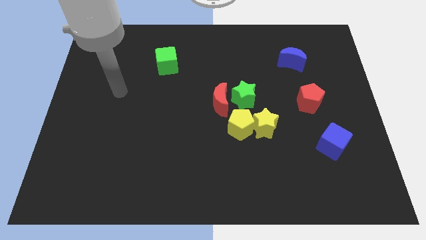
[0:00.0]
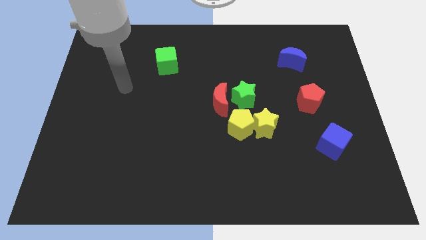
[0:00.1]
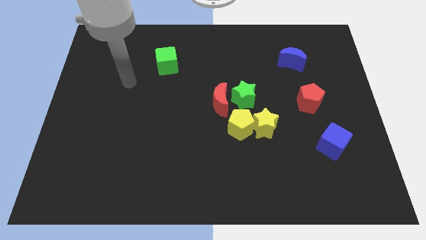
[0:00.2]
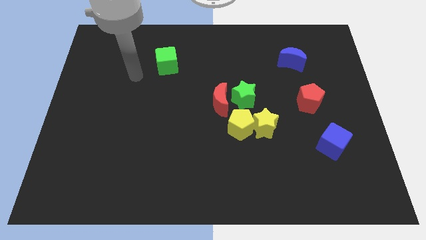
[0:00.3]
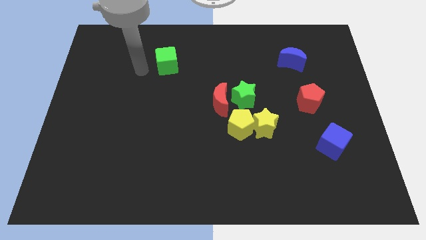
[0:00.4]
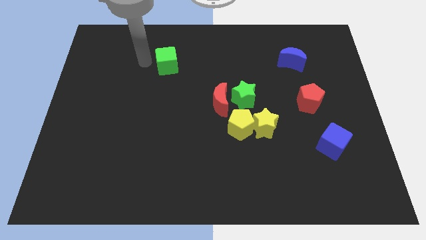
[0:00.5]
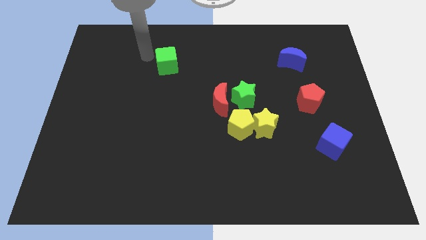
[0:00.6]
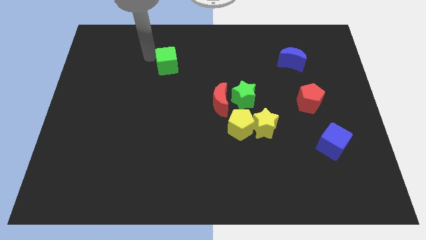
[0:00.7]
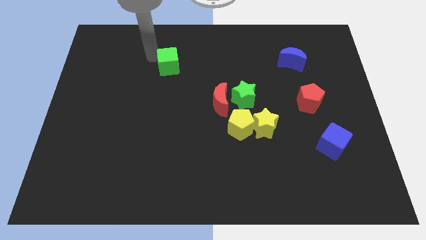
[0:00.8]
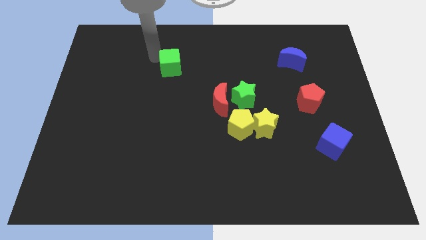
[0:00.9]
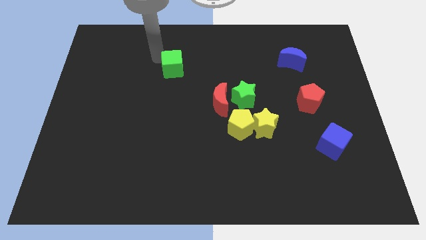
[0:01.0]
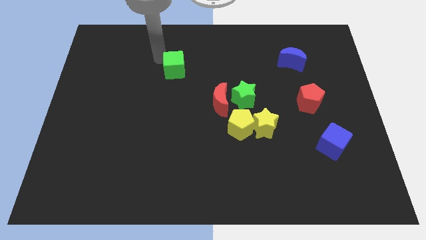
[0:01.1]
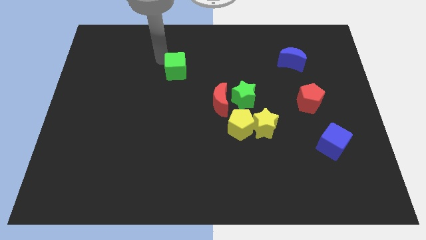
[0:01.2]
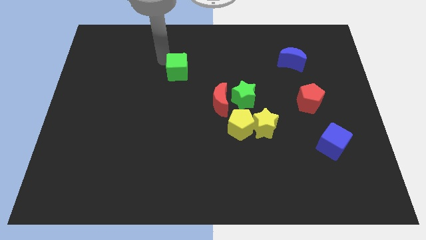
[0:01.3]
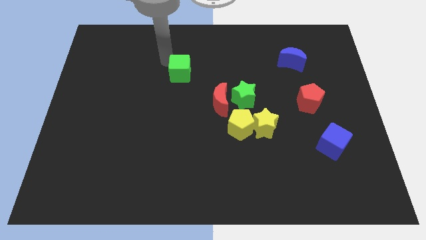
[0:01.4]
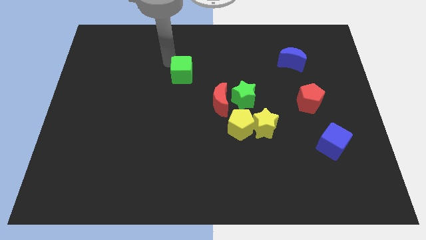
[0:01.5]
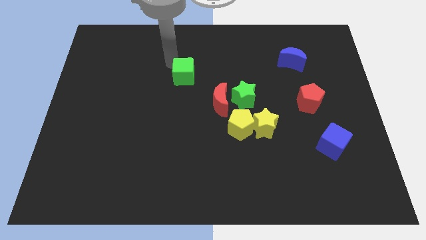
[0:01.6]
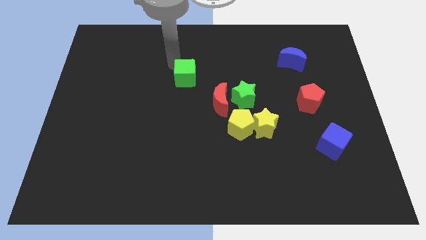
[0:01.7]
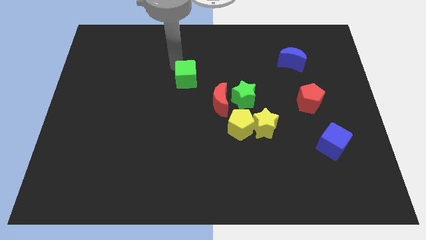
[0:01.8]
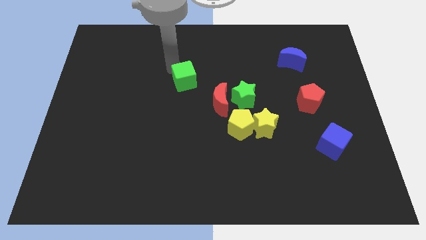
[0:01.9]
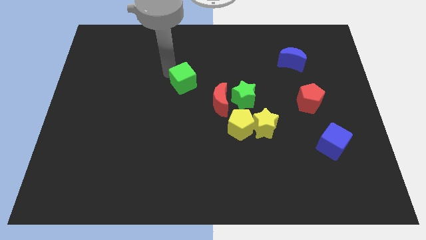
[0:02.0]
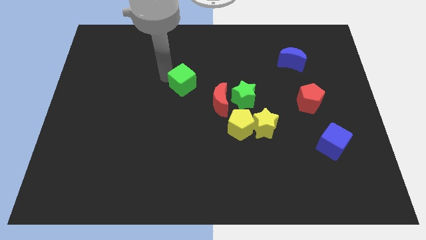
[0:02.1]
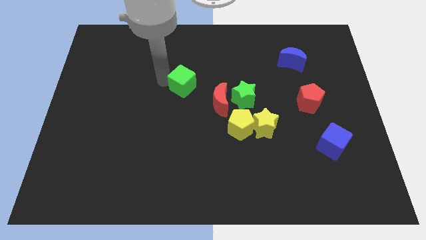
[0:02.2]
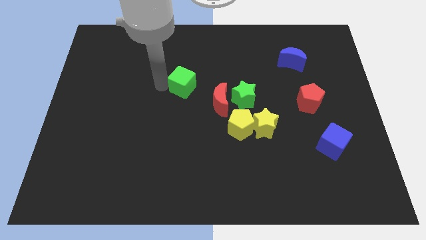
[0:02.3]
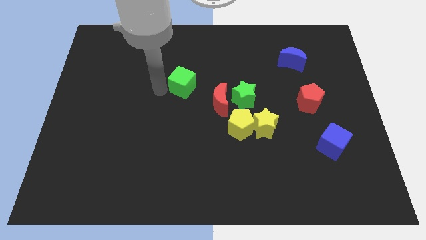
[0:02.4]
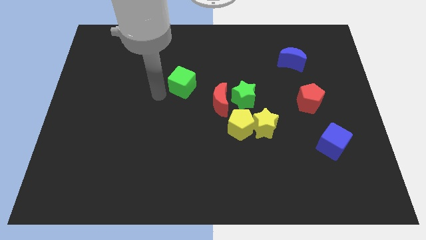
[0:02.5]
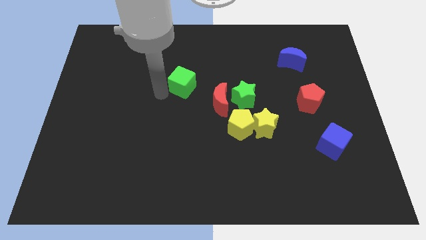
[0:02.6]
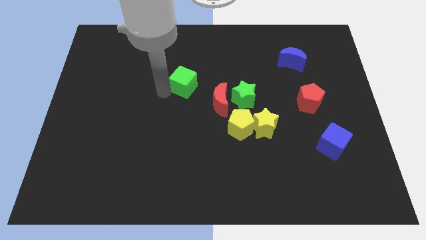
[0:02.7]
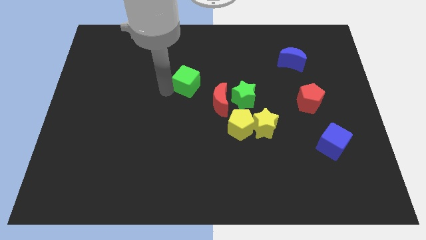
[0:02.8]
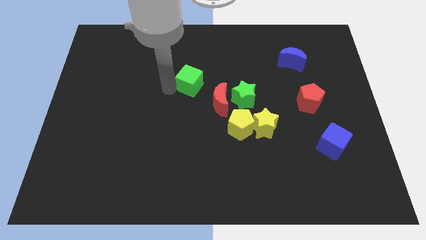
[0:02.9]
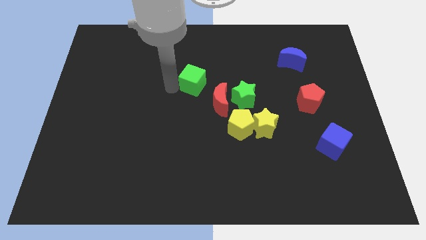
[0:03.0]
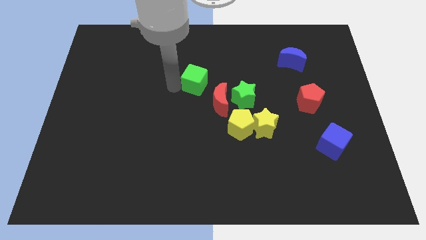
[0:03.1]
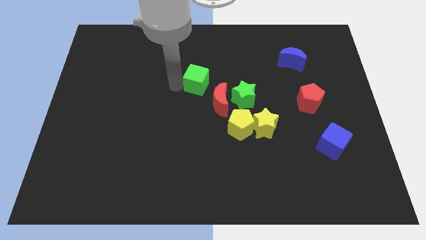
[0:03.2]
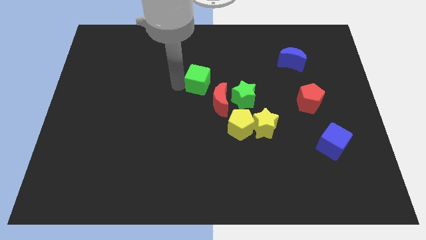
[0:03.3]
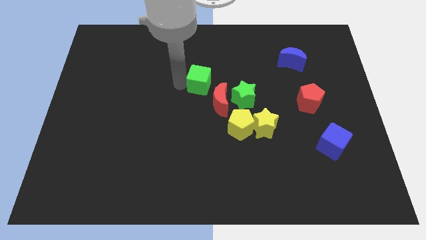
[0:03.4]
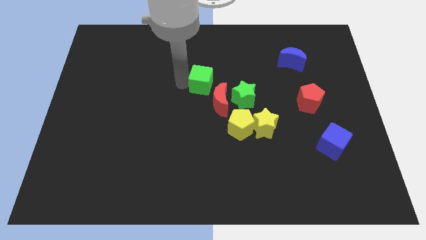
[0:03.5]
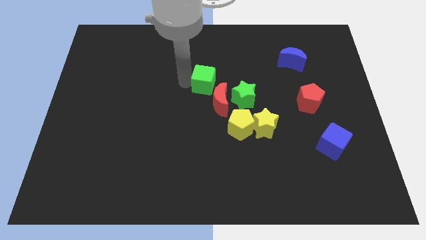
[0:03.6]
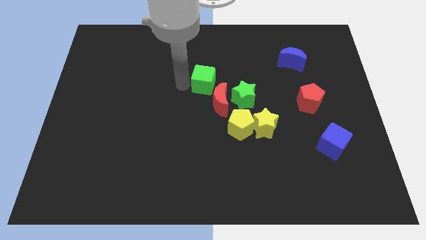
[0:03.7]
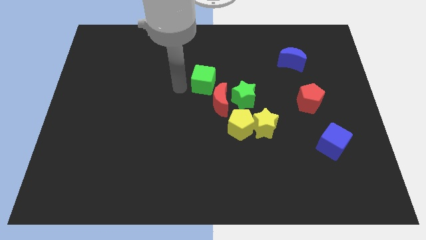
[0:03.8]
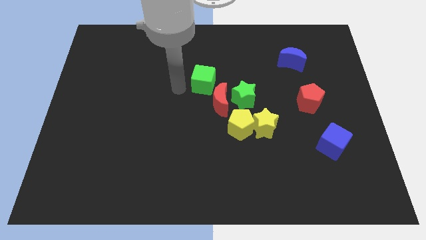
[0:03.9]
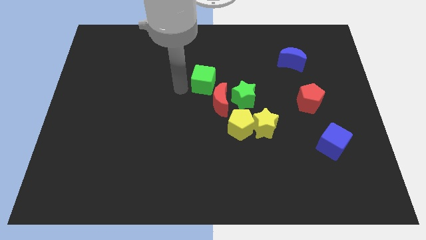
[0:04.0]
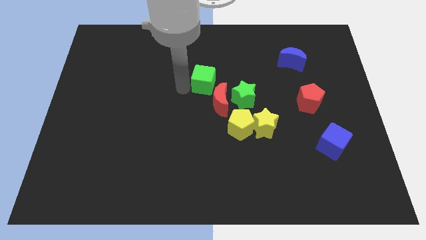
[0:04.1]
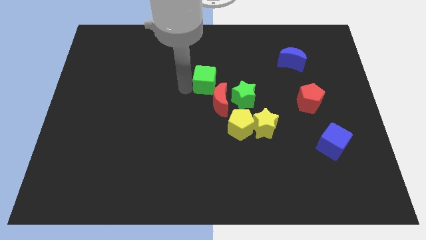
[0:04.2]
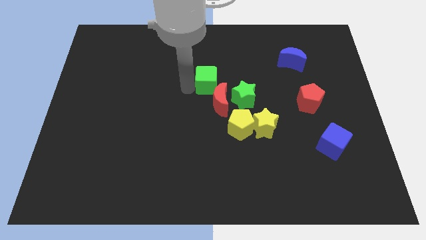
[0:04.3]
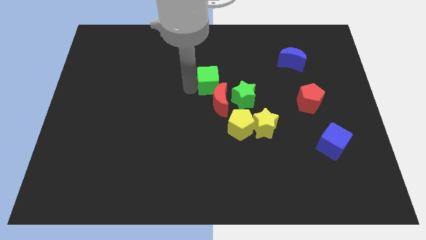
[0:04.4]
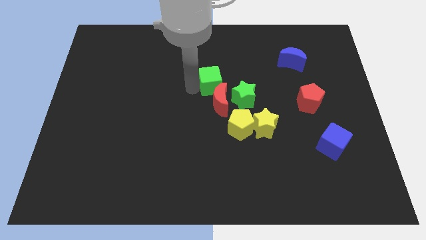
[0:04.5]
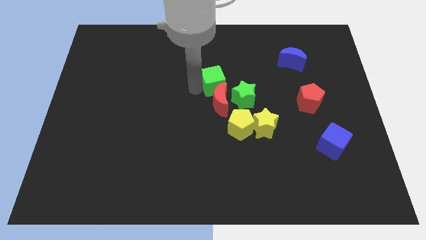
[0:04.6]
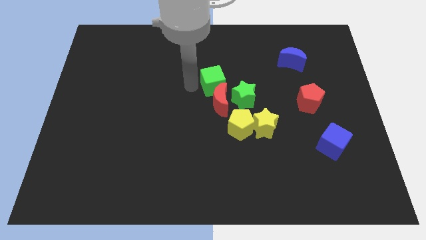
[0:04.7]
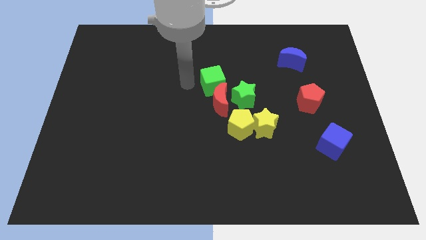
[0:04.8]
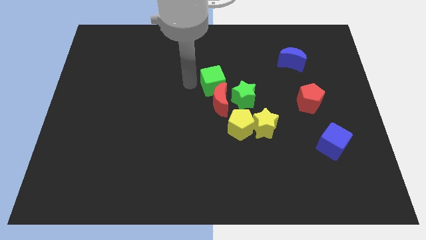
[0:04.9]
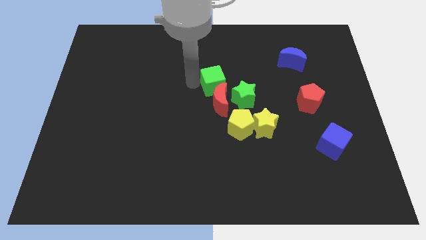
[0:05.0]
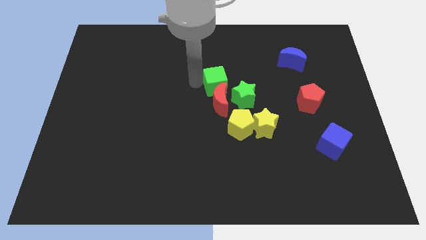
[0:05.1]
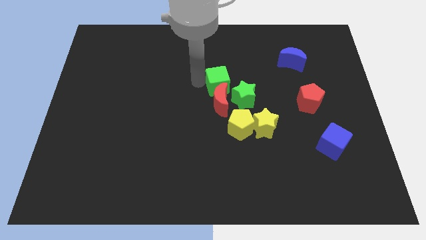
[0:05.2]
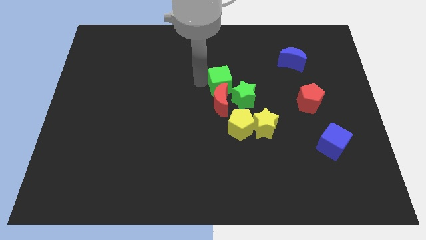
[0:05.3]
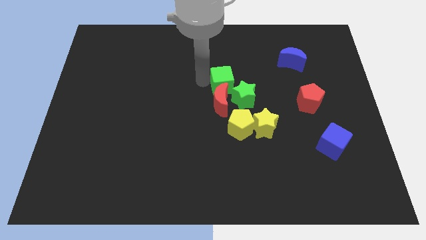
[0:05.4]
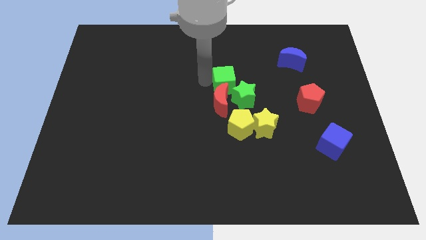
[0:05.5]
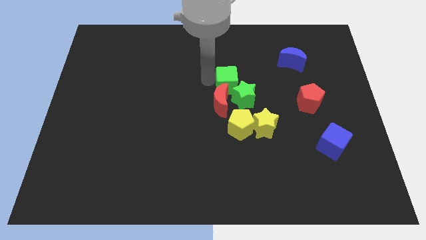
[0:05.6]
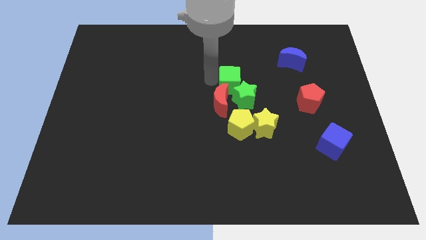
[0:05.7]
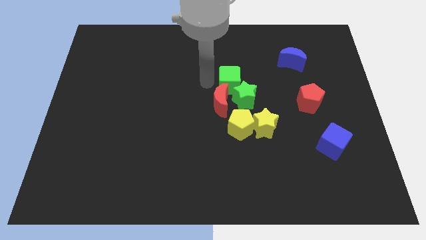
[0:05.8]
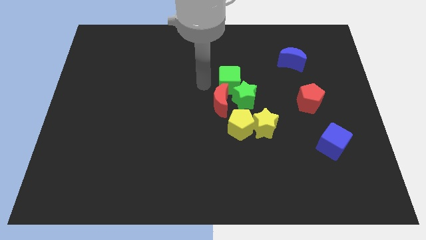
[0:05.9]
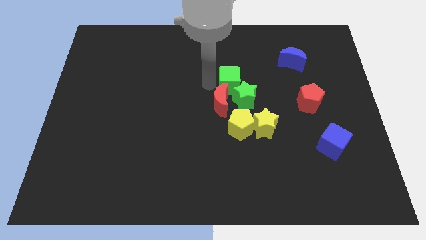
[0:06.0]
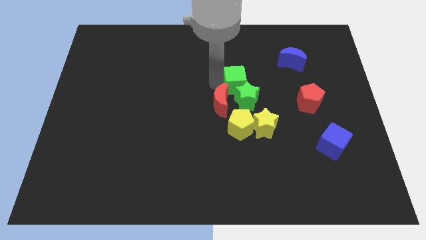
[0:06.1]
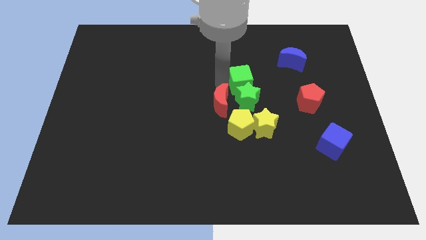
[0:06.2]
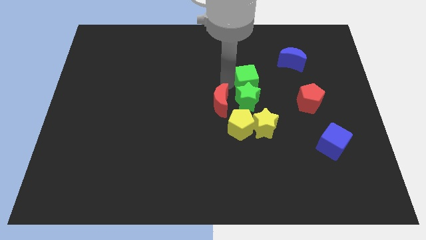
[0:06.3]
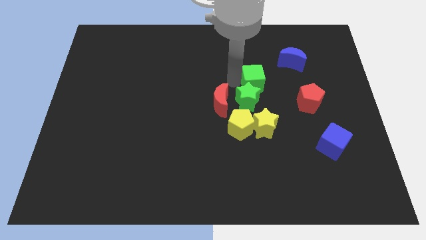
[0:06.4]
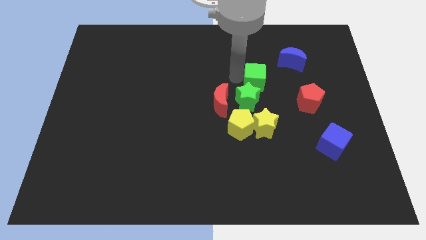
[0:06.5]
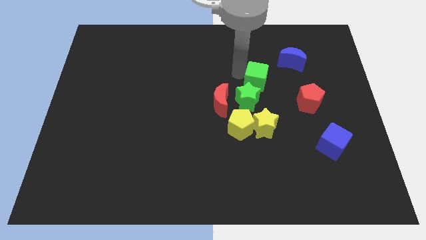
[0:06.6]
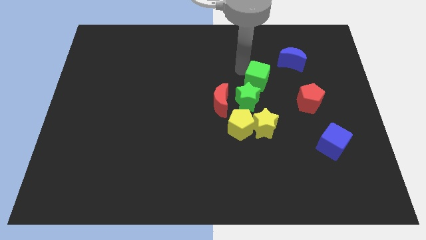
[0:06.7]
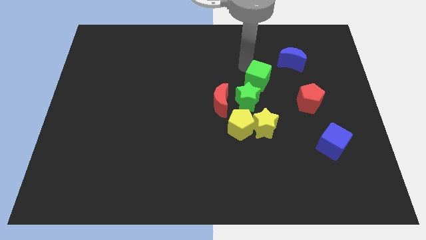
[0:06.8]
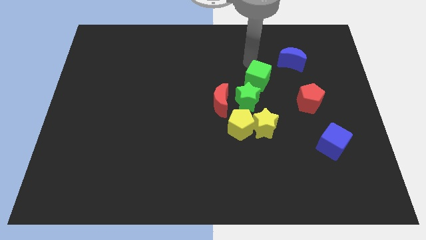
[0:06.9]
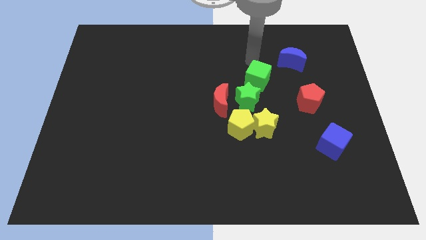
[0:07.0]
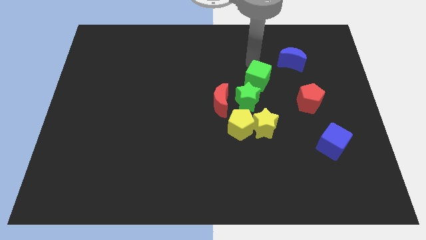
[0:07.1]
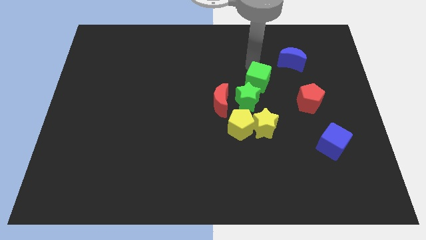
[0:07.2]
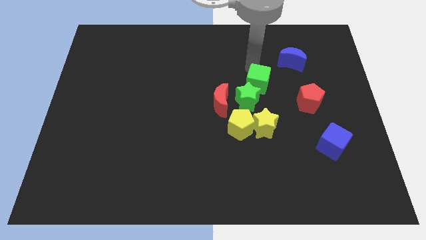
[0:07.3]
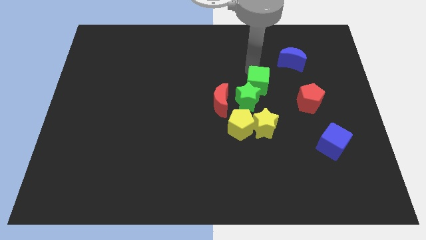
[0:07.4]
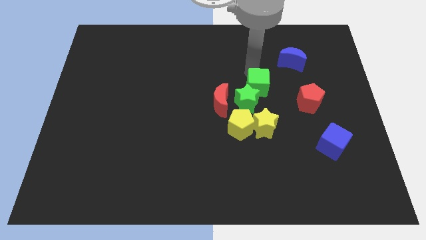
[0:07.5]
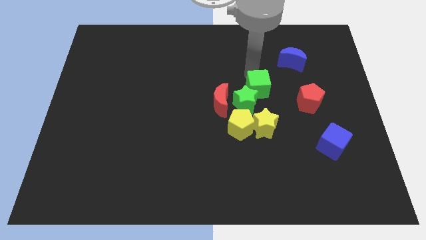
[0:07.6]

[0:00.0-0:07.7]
slide the green cube right of the red moon
